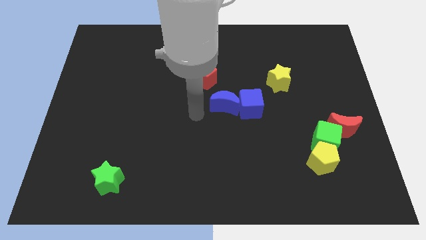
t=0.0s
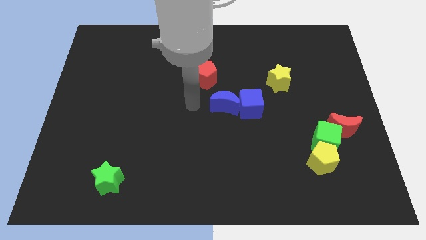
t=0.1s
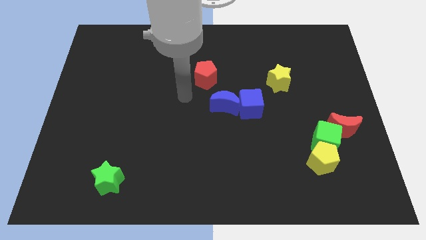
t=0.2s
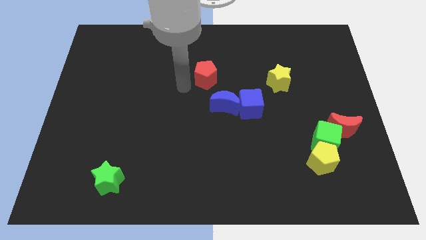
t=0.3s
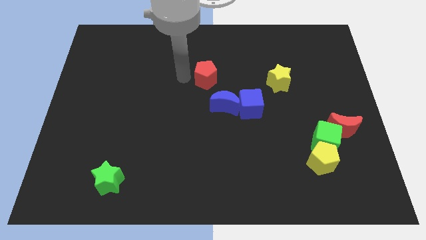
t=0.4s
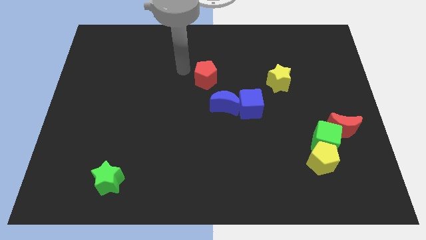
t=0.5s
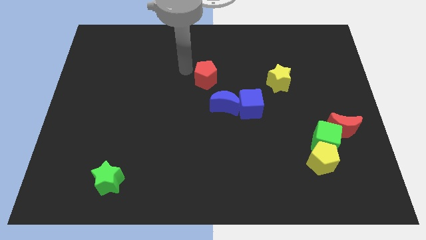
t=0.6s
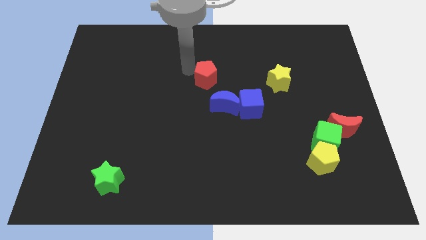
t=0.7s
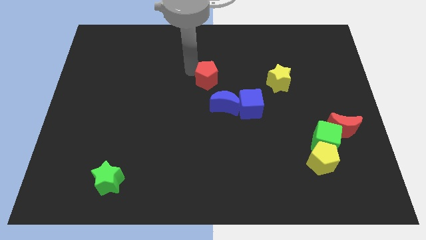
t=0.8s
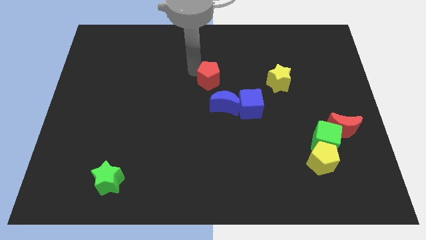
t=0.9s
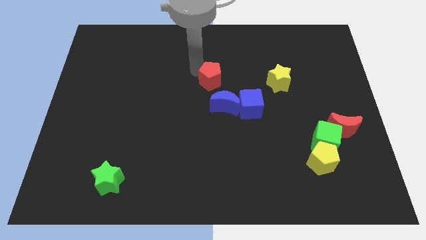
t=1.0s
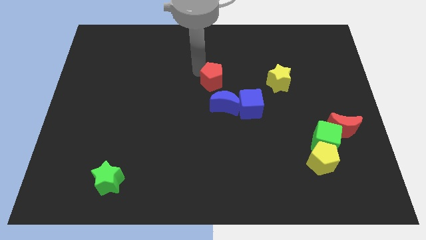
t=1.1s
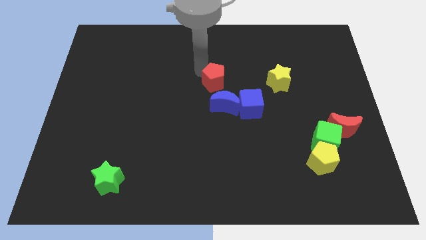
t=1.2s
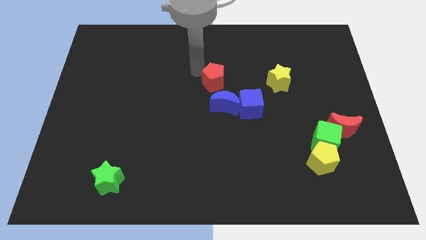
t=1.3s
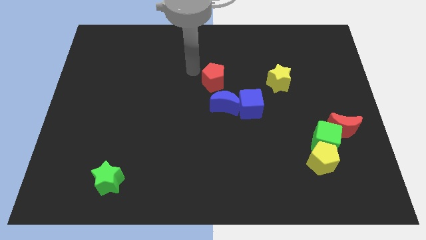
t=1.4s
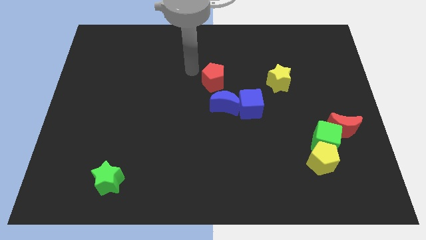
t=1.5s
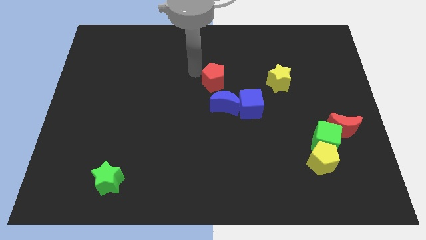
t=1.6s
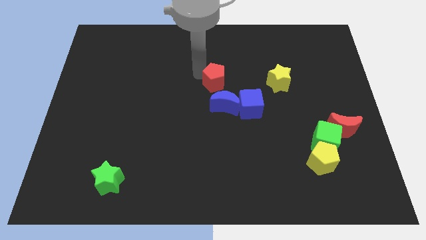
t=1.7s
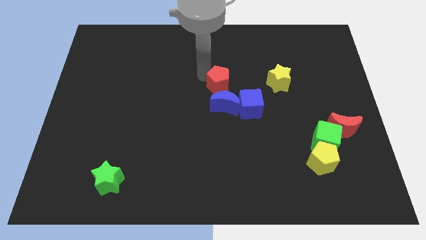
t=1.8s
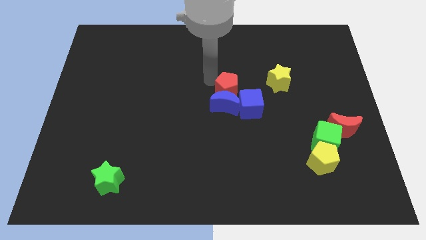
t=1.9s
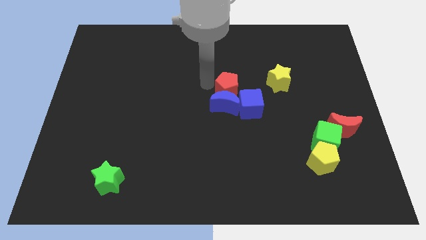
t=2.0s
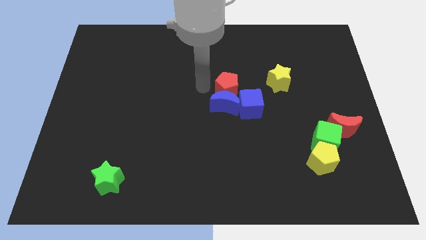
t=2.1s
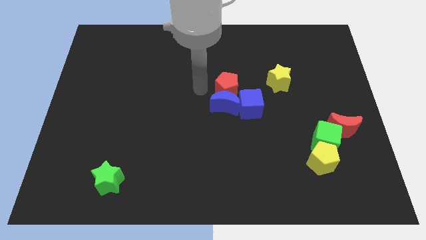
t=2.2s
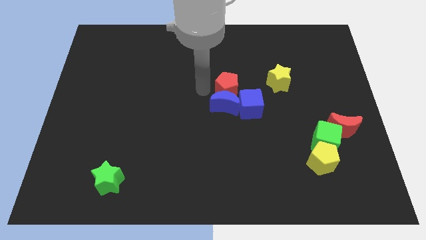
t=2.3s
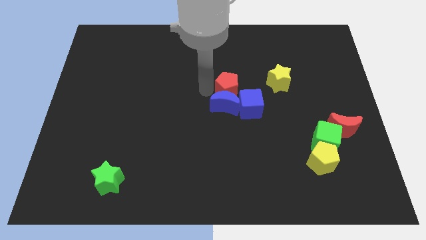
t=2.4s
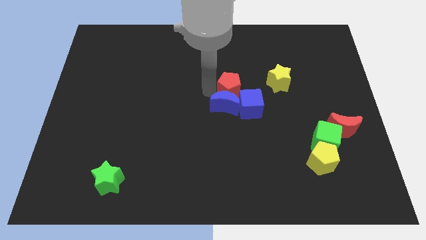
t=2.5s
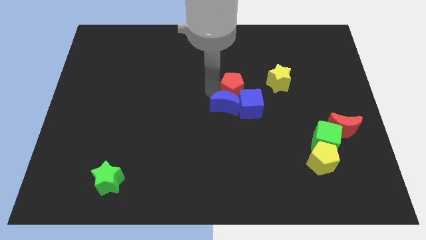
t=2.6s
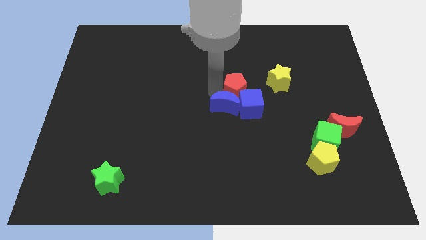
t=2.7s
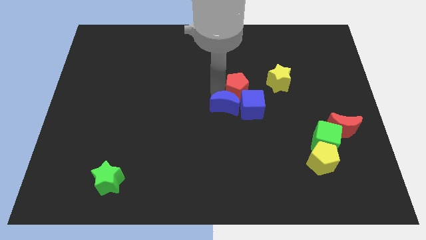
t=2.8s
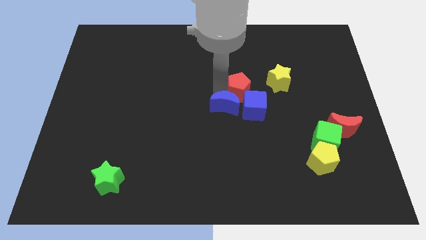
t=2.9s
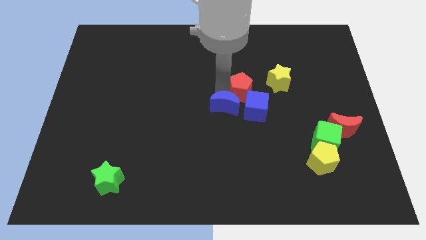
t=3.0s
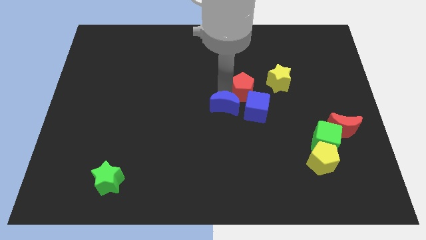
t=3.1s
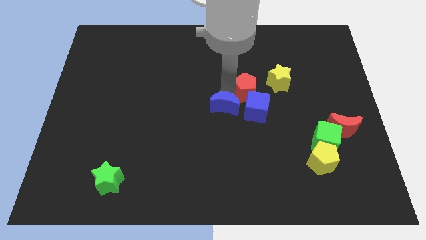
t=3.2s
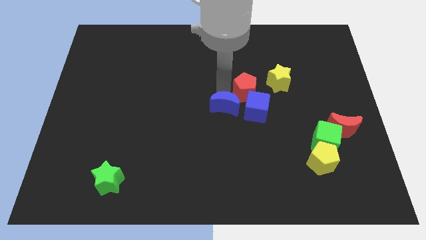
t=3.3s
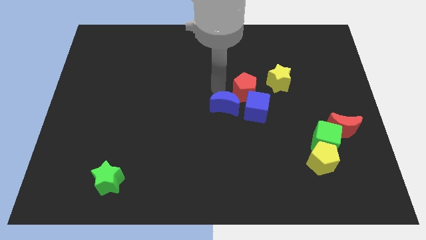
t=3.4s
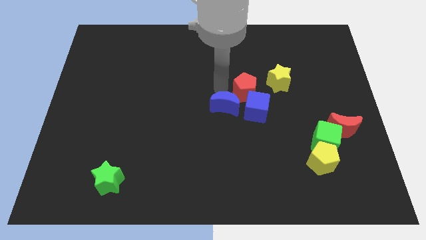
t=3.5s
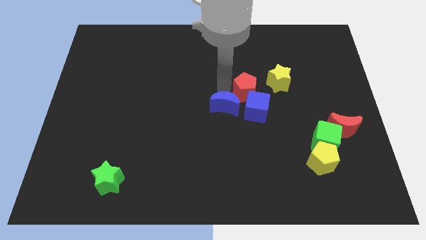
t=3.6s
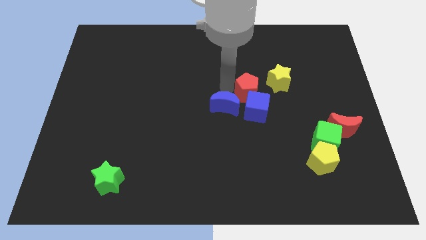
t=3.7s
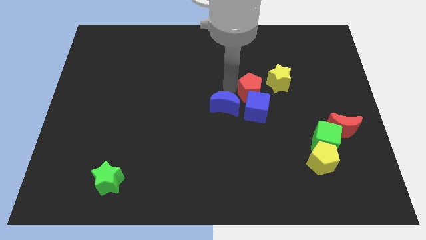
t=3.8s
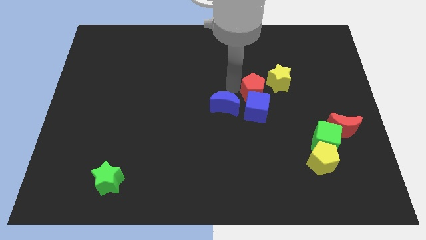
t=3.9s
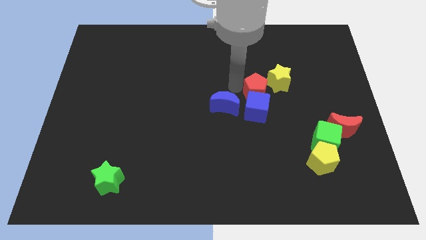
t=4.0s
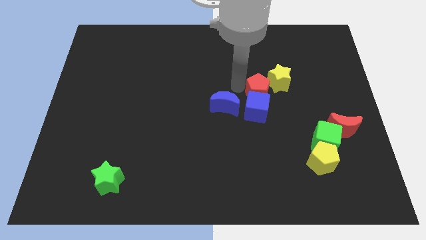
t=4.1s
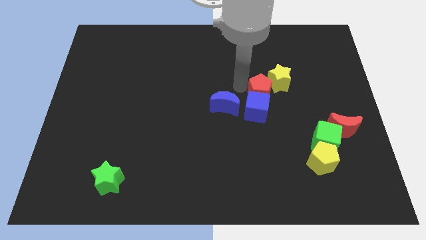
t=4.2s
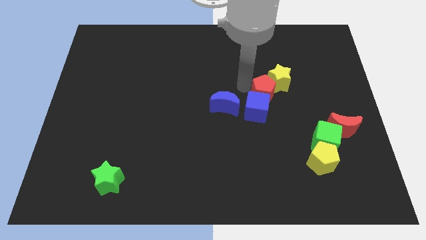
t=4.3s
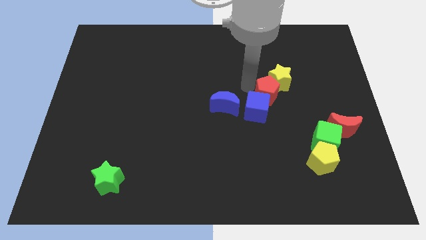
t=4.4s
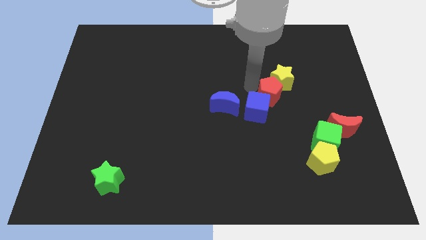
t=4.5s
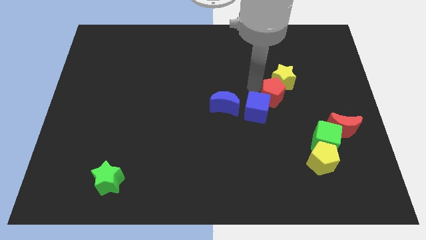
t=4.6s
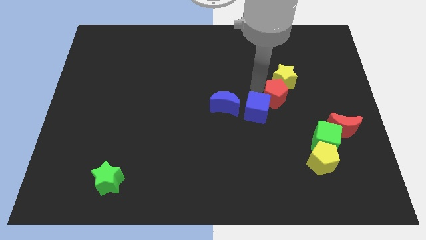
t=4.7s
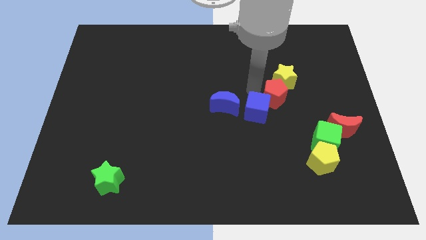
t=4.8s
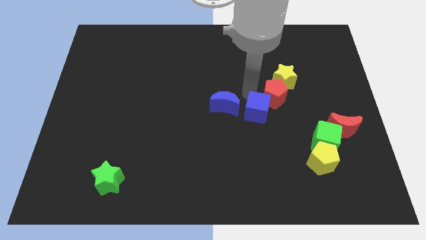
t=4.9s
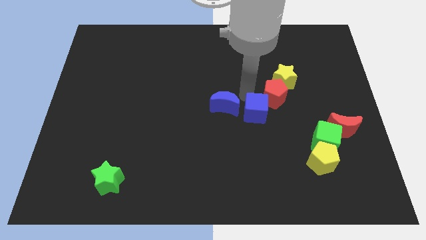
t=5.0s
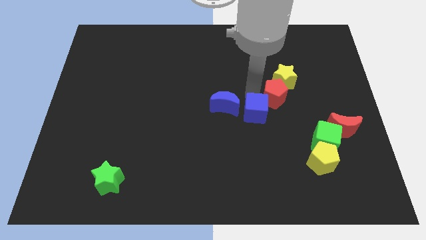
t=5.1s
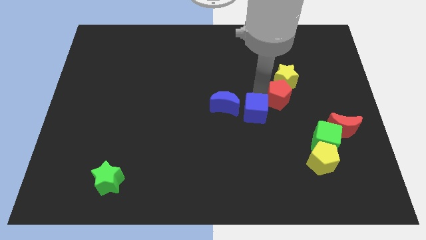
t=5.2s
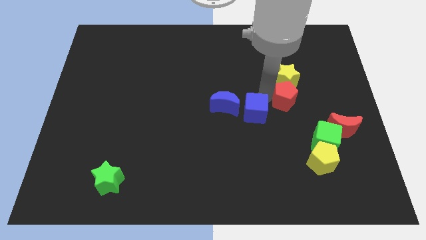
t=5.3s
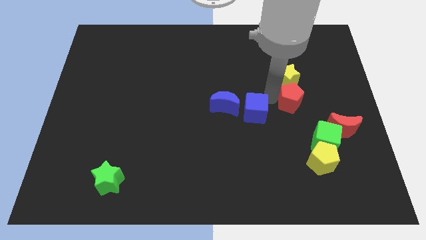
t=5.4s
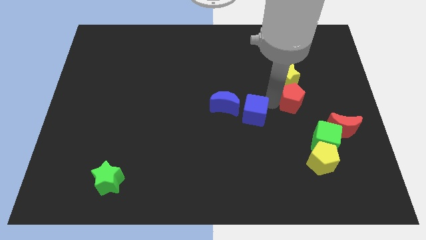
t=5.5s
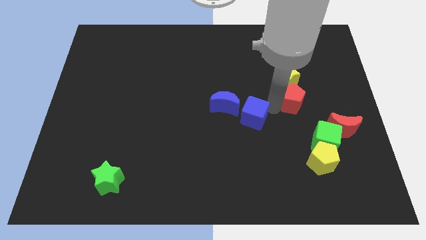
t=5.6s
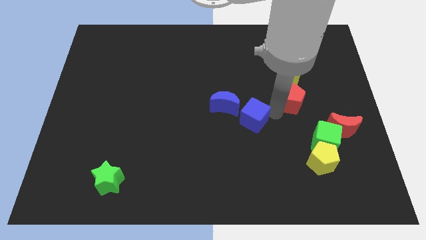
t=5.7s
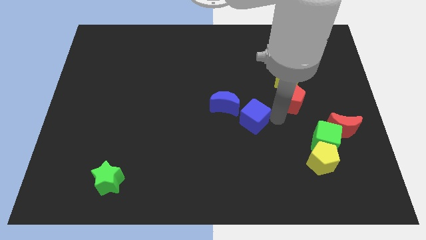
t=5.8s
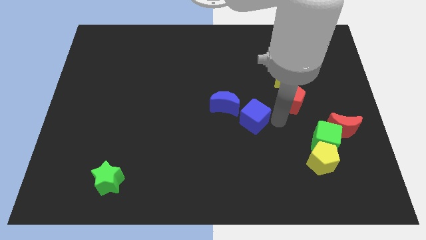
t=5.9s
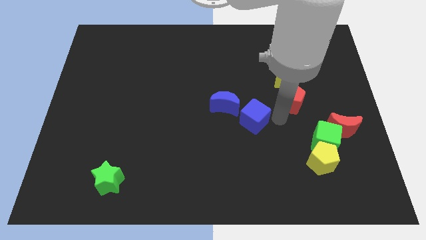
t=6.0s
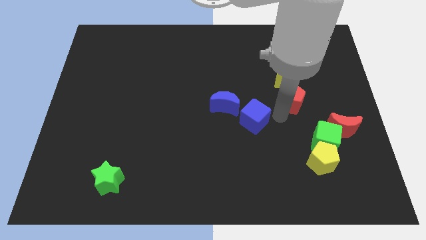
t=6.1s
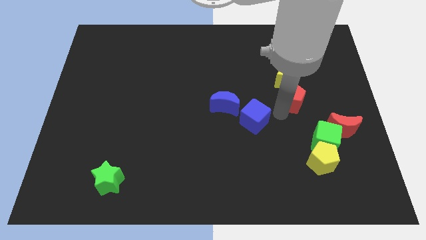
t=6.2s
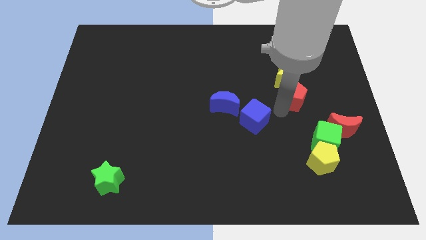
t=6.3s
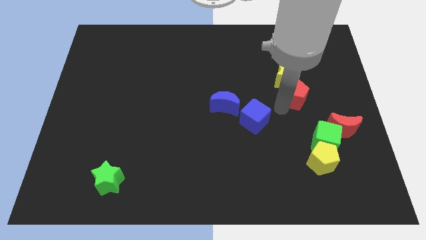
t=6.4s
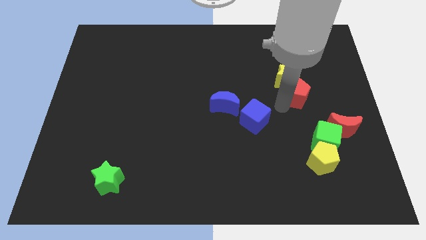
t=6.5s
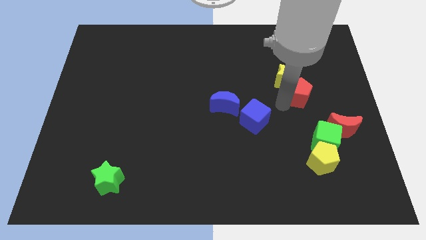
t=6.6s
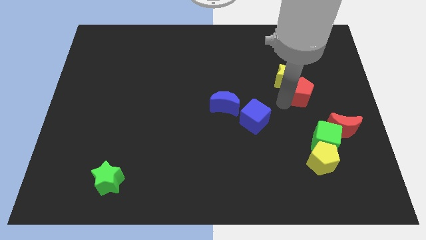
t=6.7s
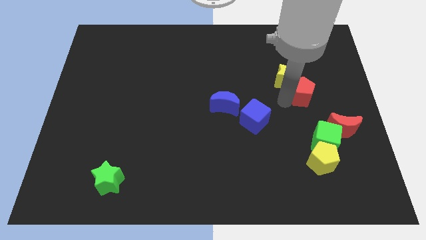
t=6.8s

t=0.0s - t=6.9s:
move the red pentagon to the right of the yellow star
